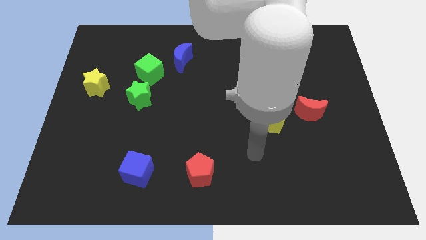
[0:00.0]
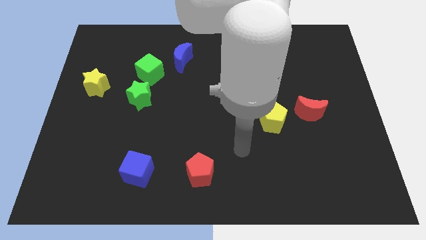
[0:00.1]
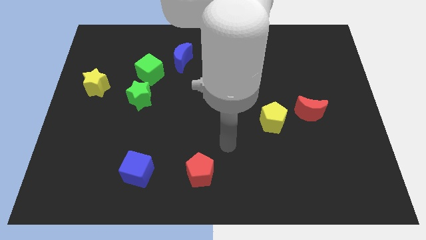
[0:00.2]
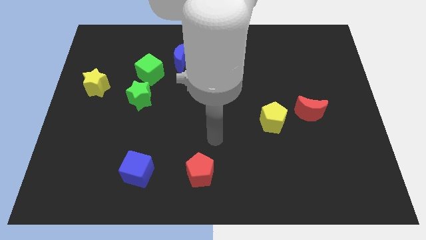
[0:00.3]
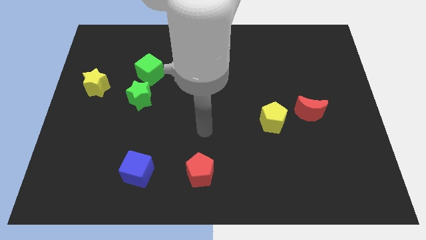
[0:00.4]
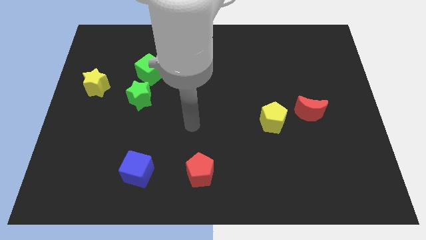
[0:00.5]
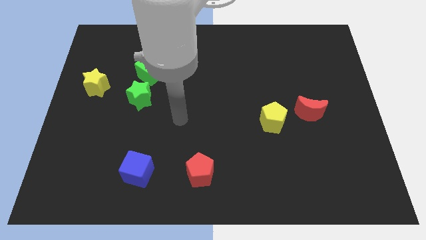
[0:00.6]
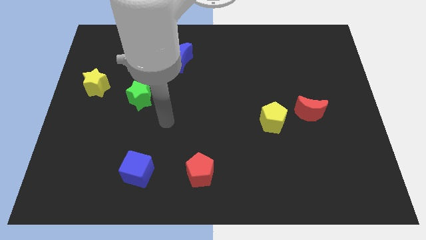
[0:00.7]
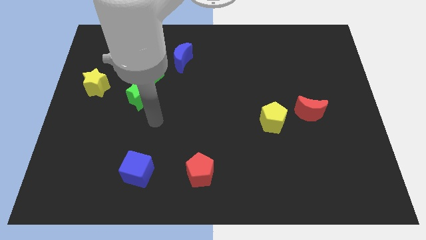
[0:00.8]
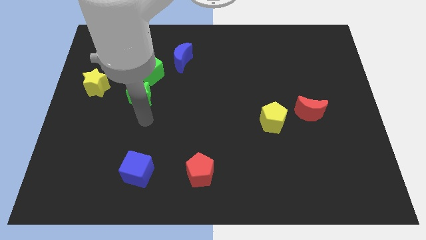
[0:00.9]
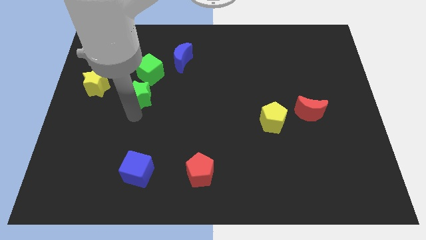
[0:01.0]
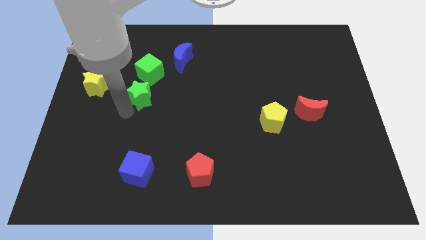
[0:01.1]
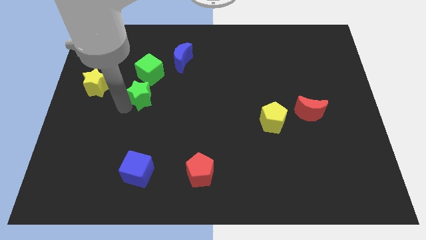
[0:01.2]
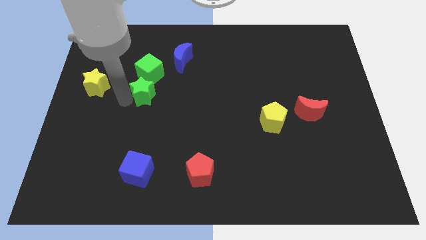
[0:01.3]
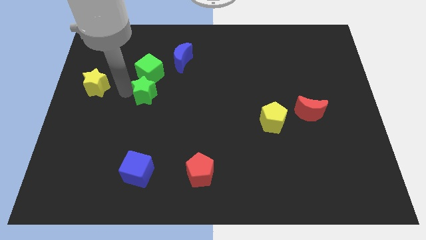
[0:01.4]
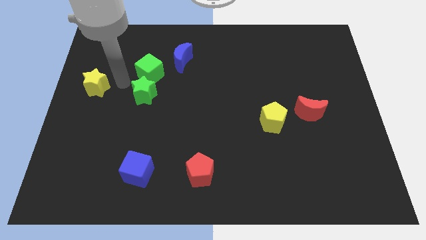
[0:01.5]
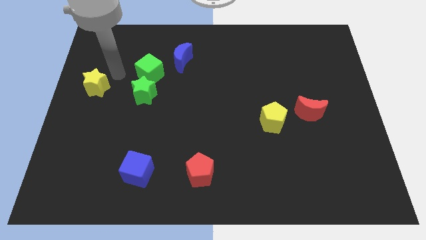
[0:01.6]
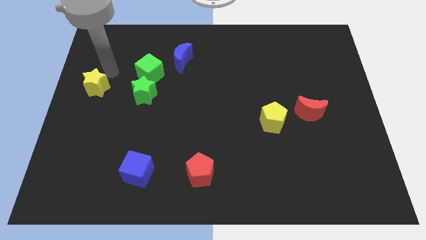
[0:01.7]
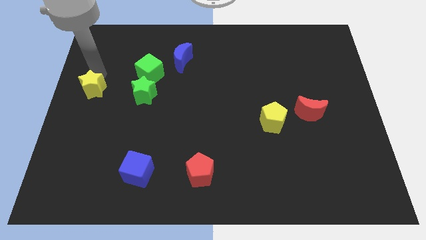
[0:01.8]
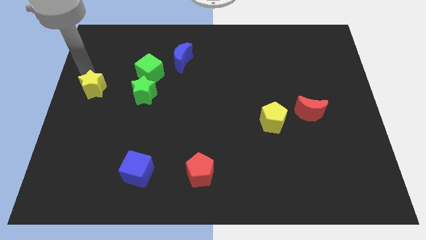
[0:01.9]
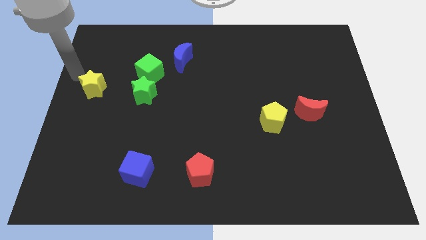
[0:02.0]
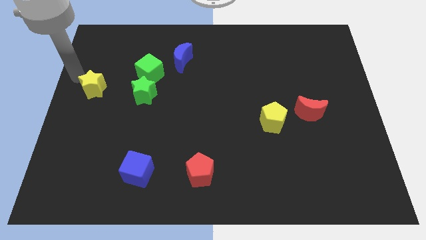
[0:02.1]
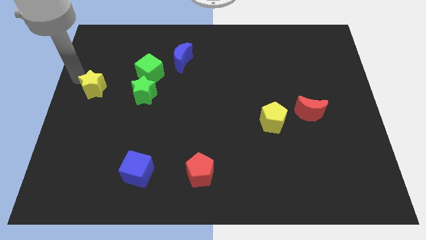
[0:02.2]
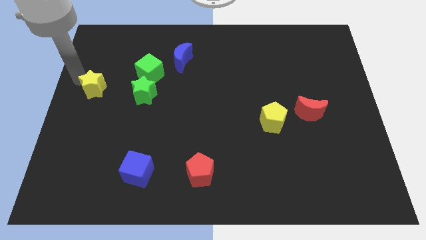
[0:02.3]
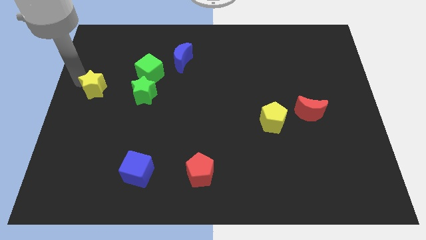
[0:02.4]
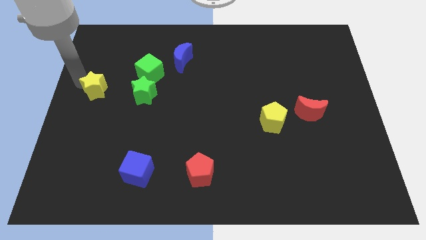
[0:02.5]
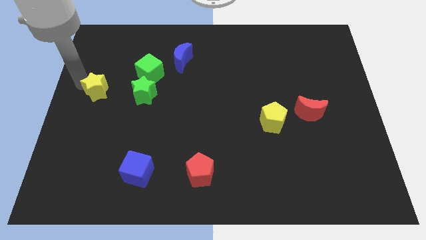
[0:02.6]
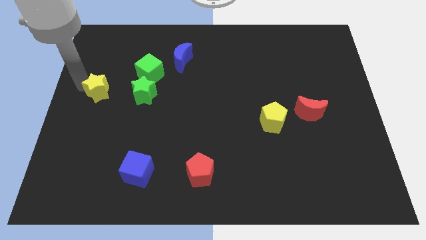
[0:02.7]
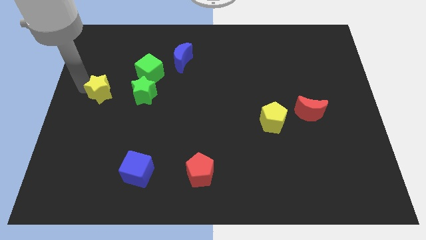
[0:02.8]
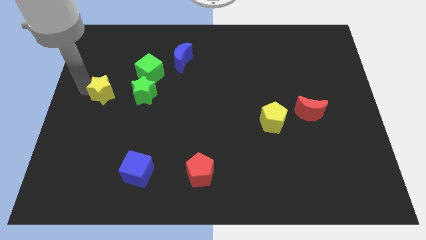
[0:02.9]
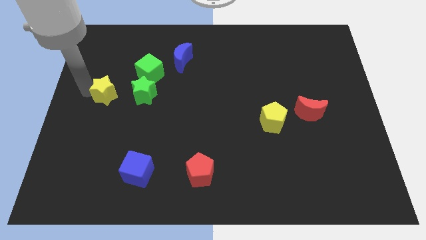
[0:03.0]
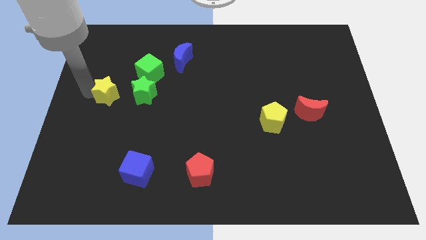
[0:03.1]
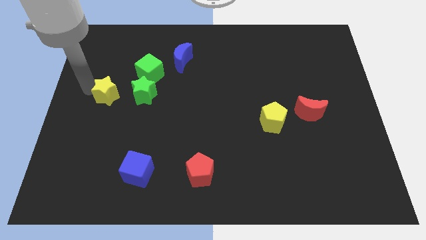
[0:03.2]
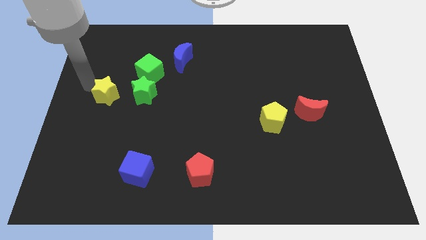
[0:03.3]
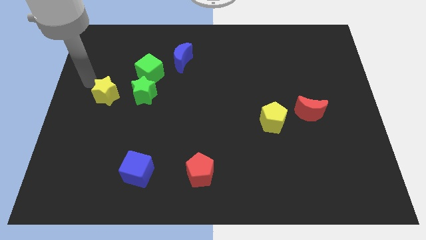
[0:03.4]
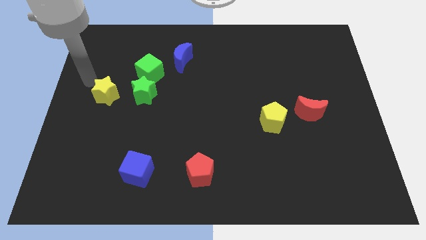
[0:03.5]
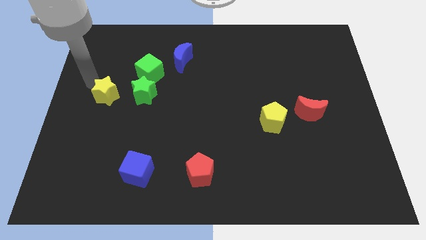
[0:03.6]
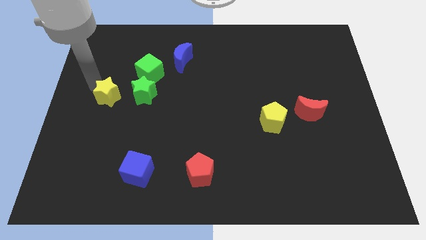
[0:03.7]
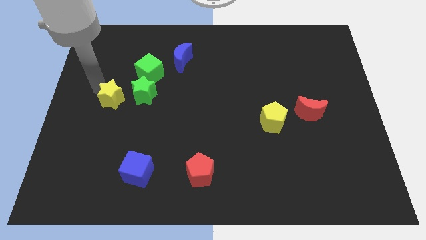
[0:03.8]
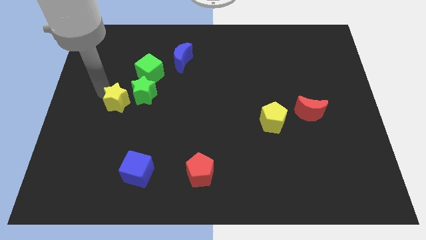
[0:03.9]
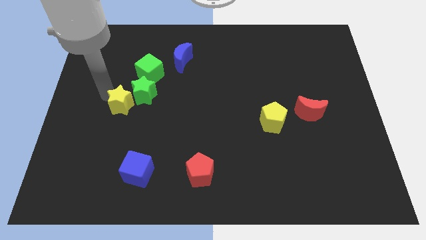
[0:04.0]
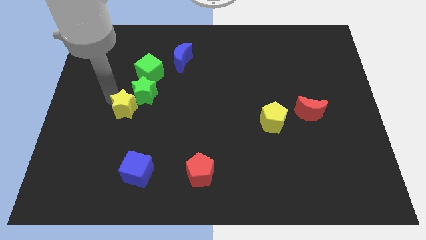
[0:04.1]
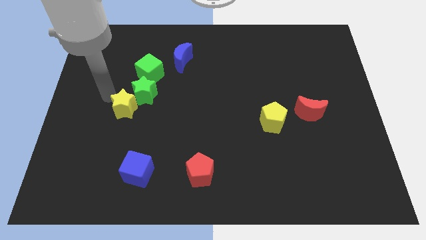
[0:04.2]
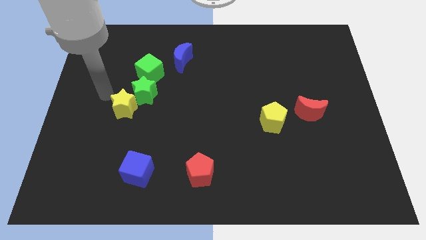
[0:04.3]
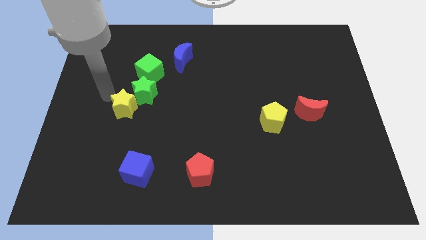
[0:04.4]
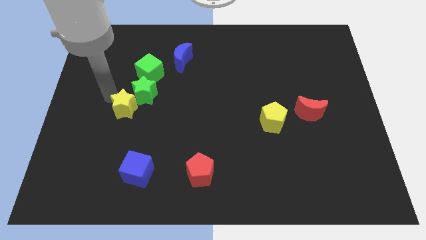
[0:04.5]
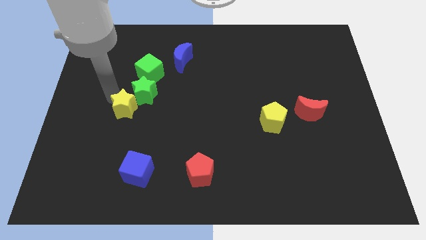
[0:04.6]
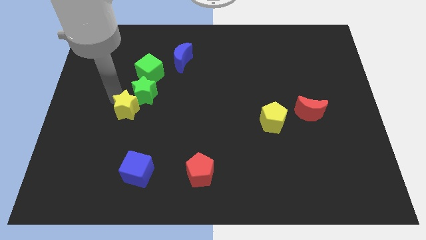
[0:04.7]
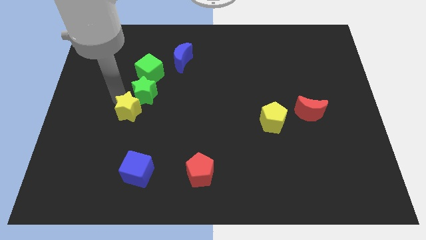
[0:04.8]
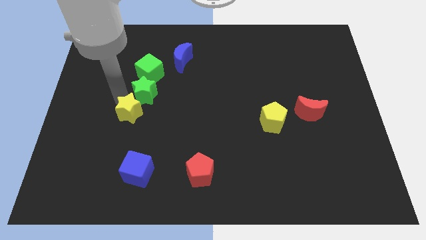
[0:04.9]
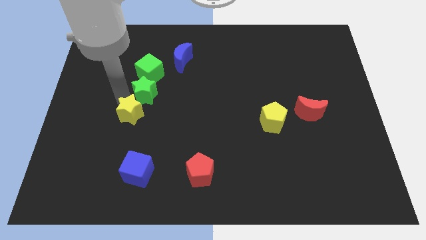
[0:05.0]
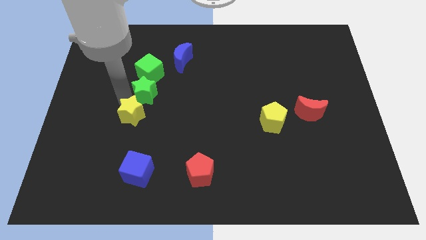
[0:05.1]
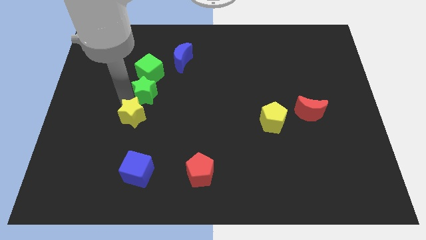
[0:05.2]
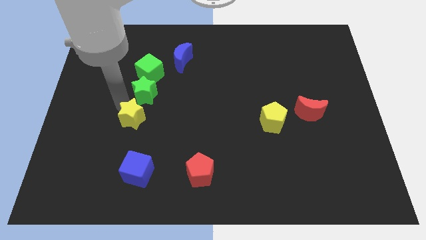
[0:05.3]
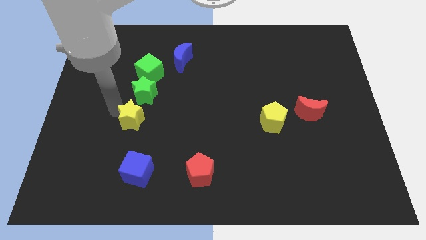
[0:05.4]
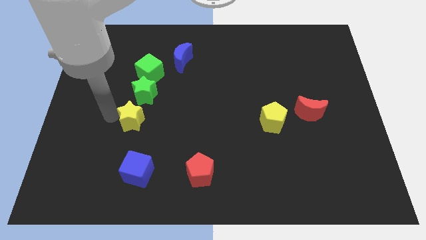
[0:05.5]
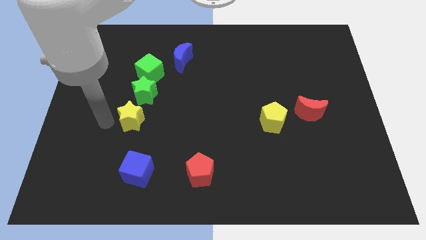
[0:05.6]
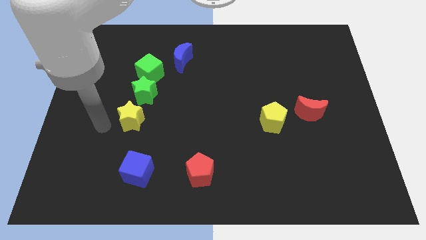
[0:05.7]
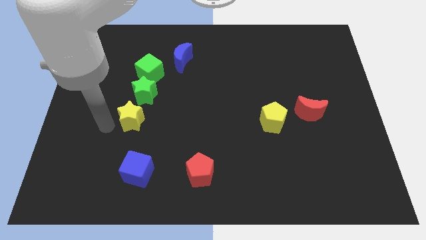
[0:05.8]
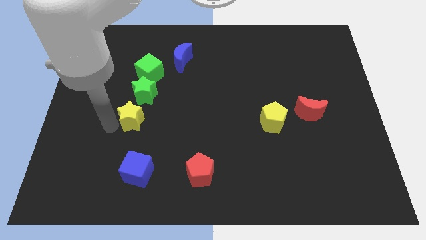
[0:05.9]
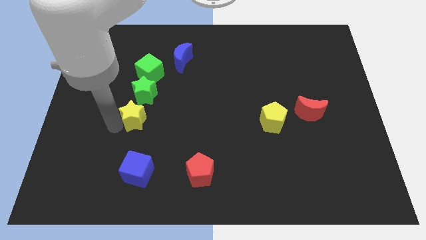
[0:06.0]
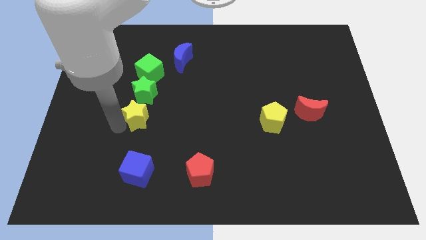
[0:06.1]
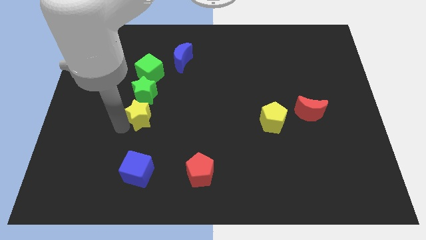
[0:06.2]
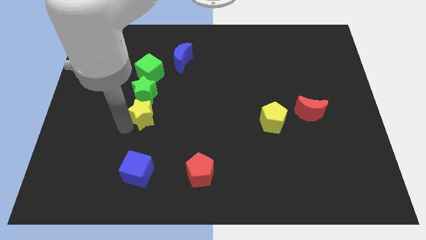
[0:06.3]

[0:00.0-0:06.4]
push the yellow star to the bottom right side of the green star
